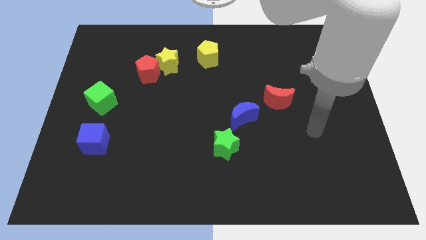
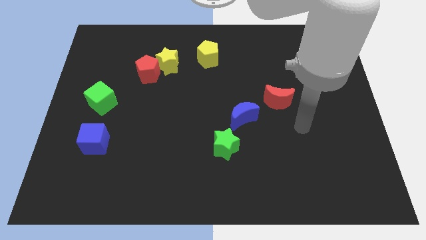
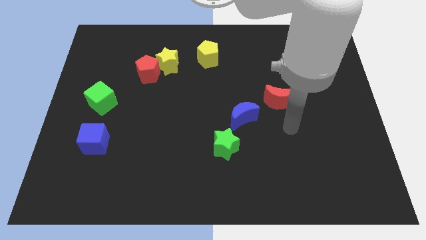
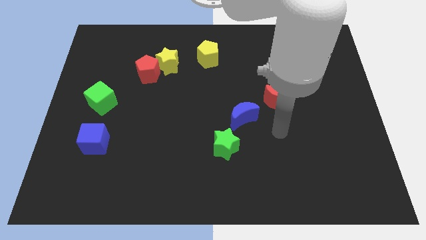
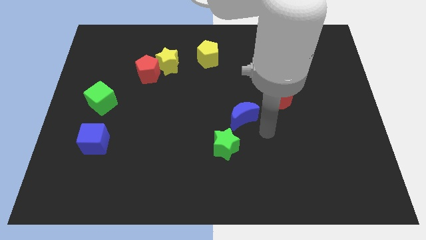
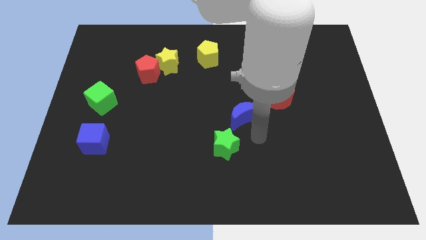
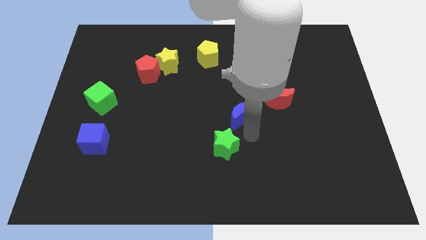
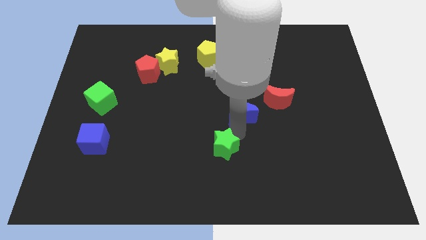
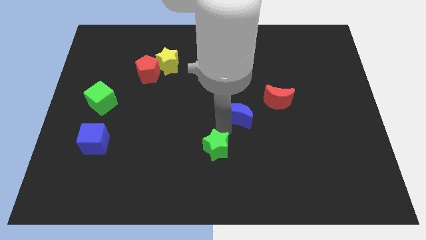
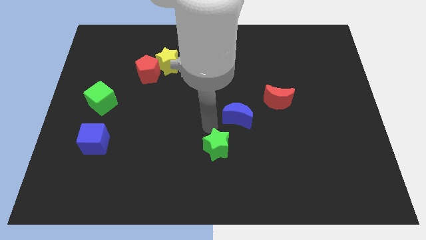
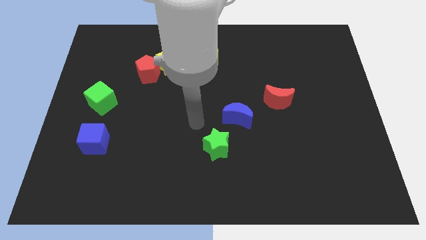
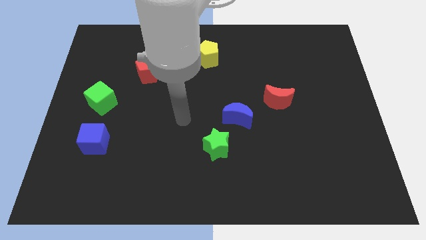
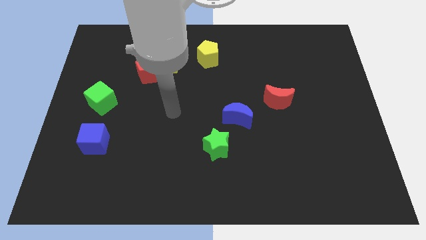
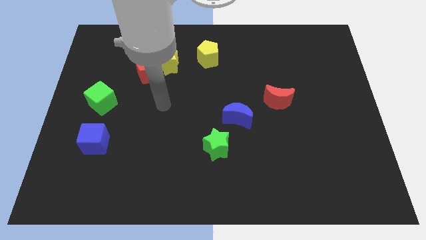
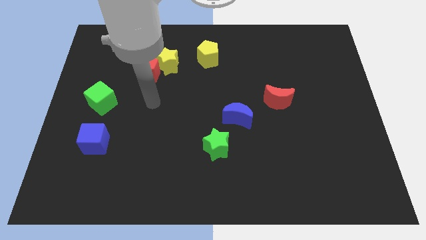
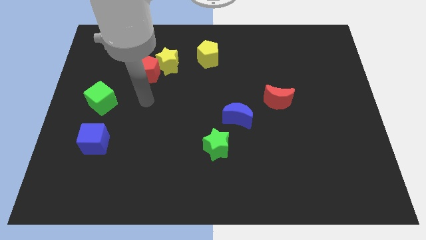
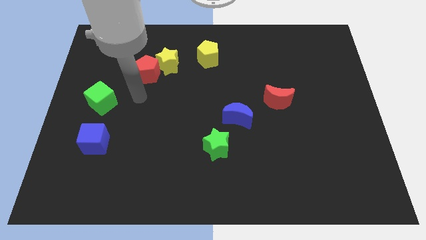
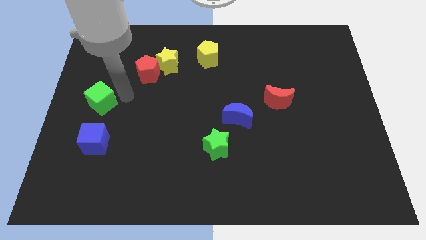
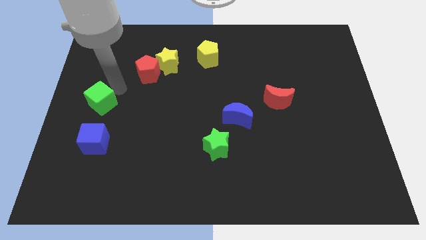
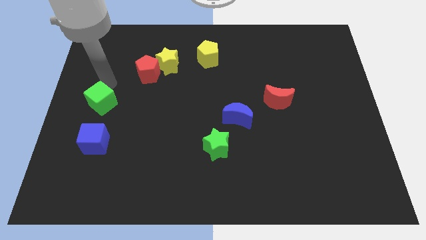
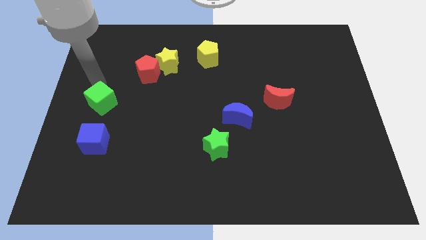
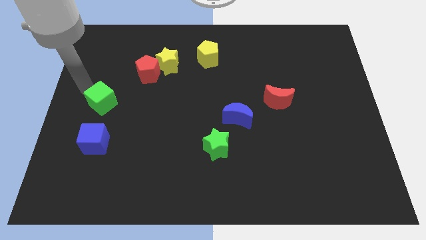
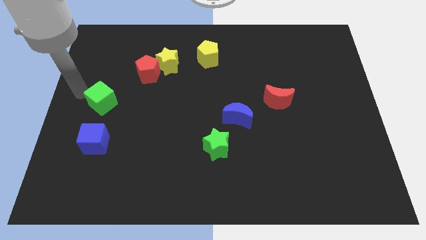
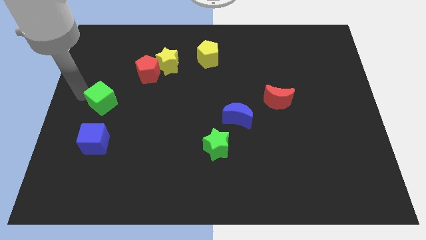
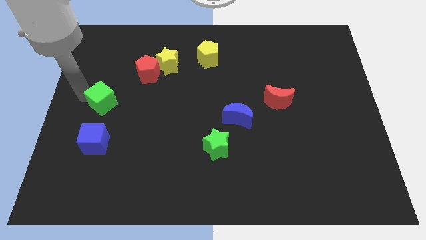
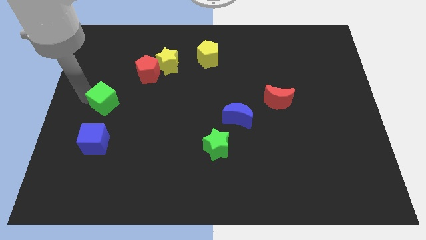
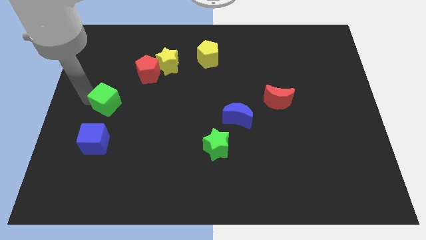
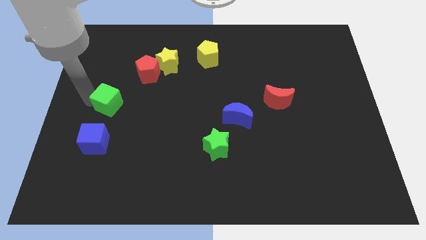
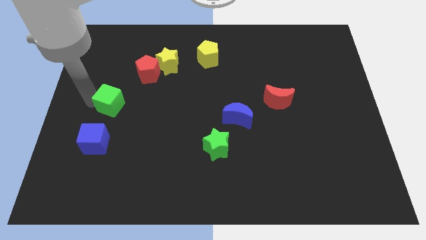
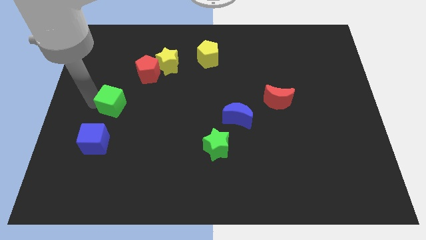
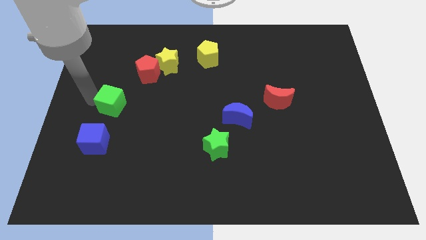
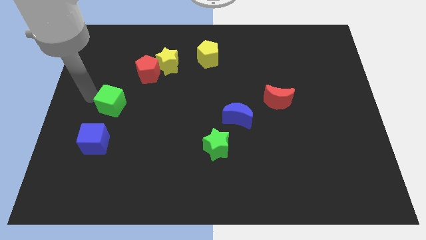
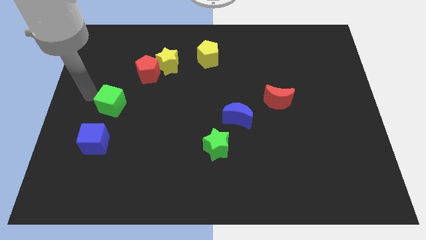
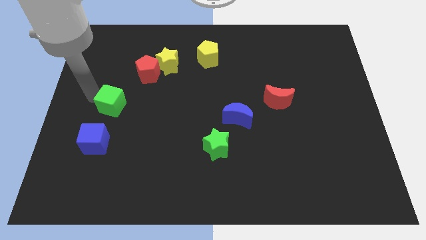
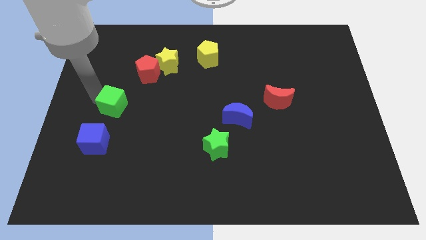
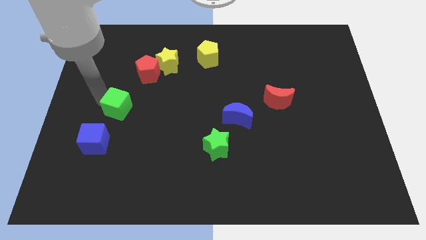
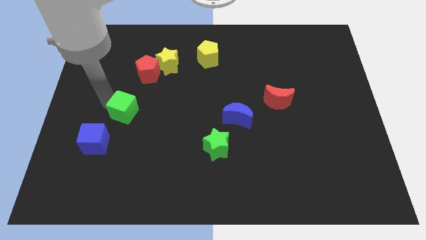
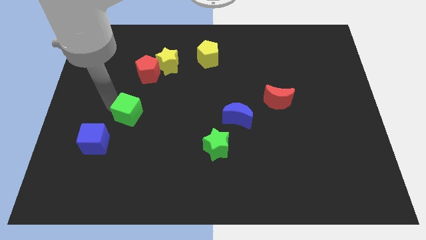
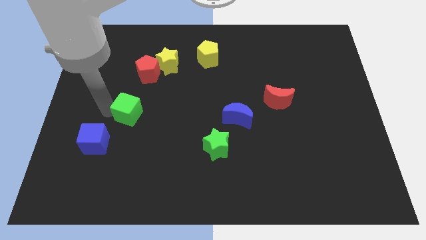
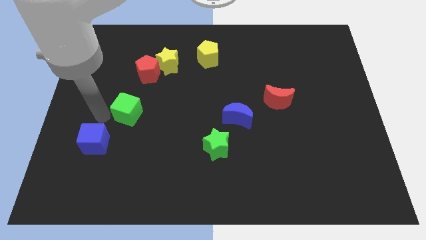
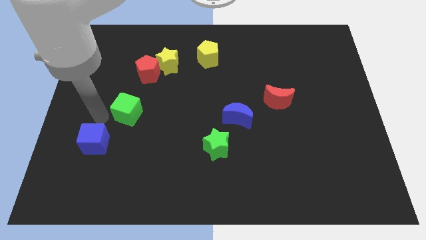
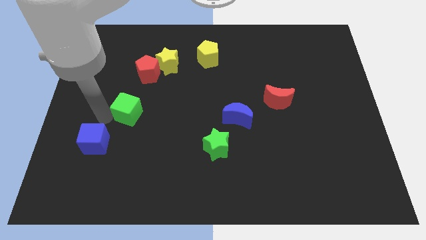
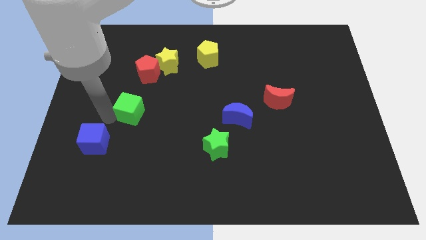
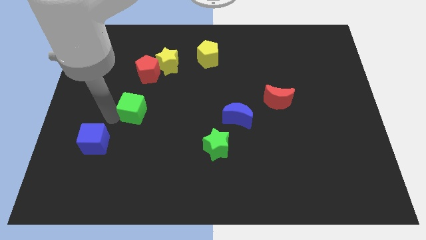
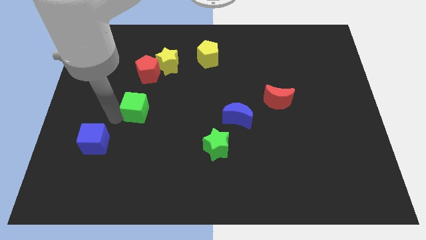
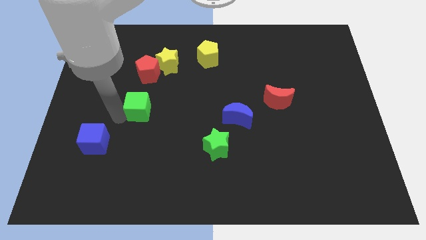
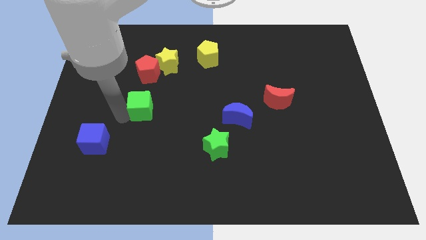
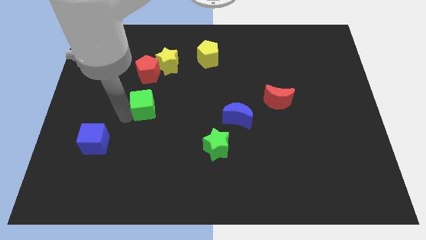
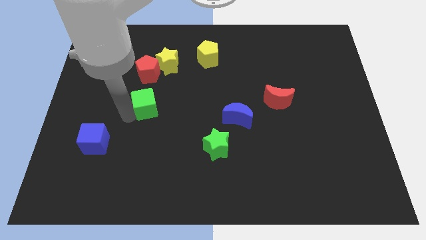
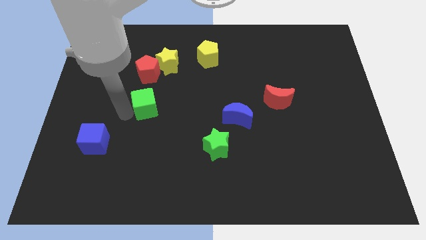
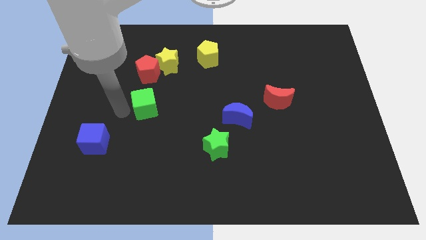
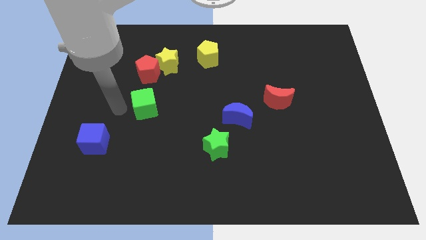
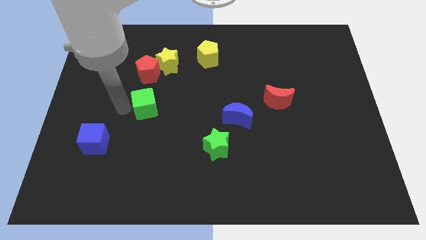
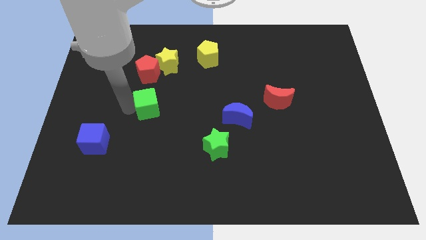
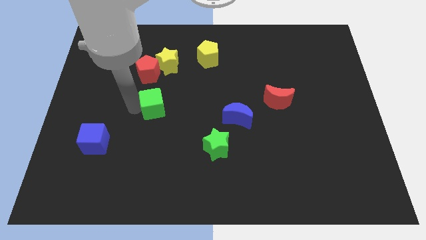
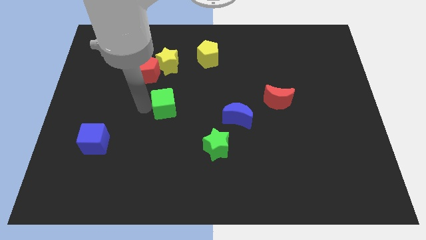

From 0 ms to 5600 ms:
move the green cube to the center
